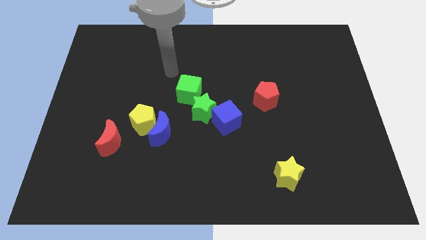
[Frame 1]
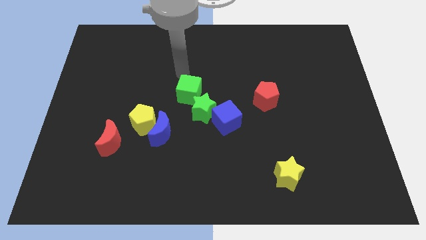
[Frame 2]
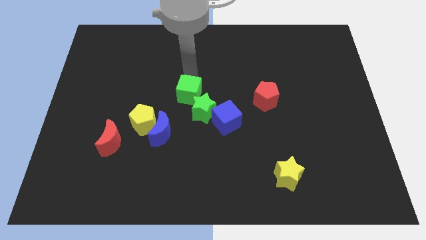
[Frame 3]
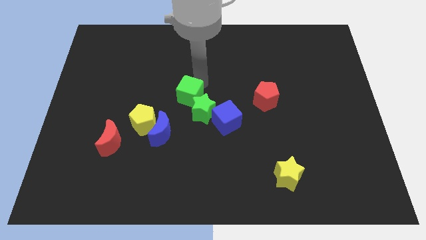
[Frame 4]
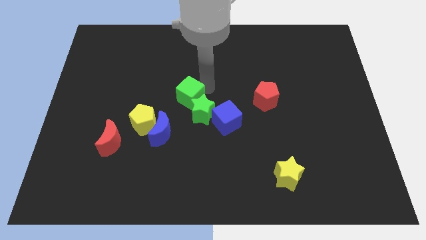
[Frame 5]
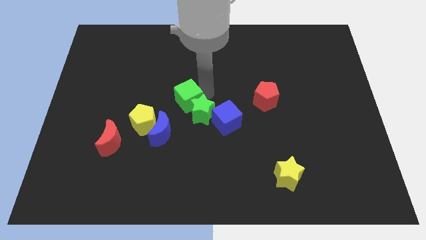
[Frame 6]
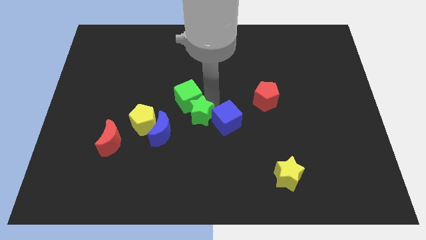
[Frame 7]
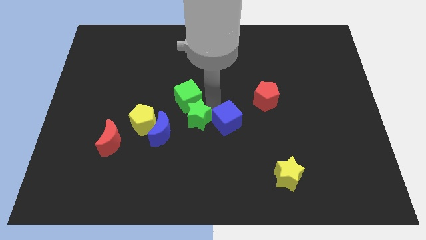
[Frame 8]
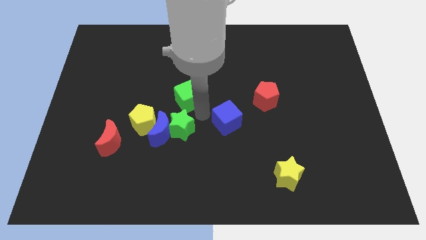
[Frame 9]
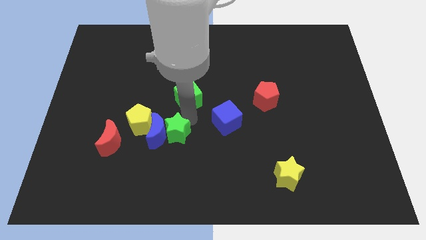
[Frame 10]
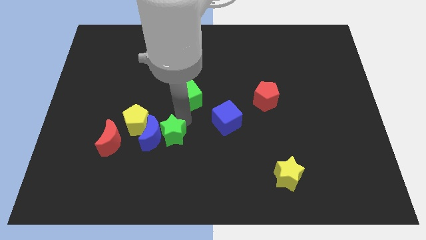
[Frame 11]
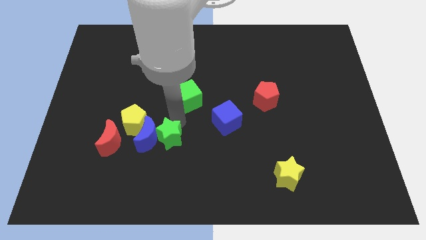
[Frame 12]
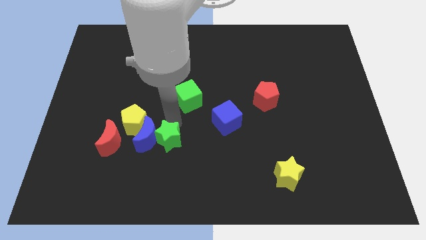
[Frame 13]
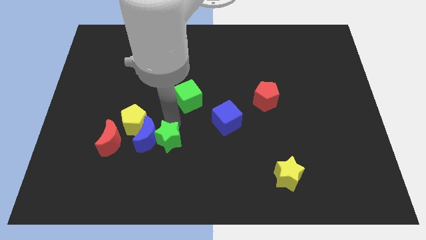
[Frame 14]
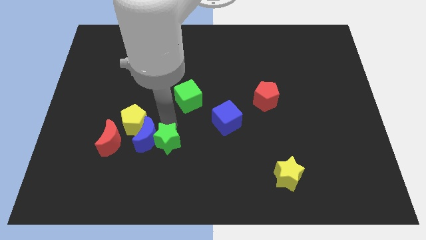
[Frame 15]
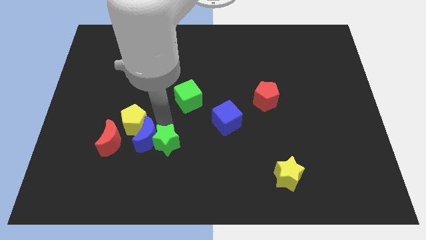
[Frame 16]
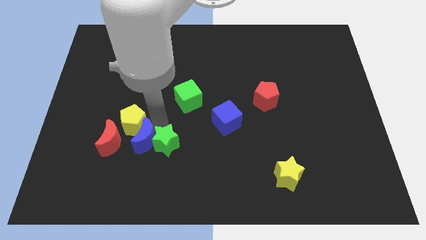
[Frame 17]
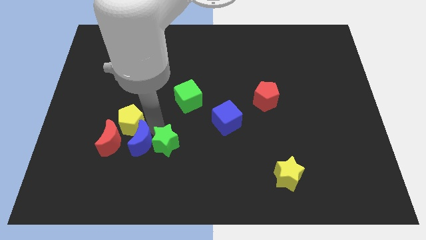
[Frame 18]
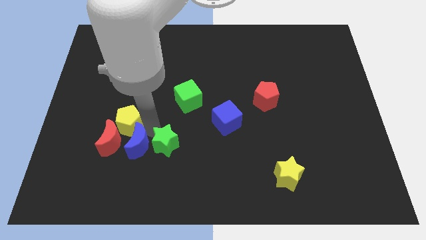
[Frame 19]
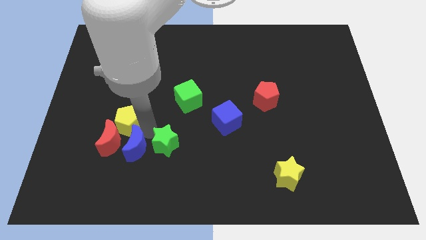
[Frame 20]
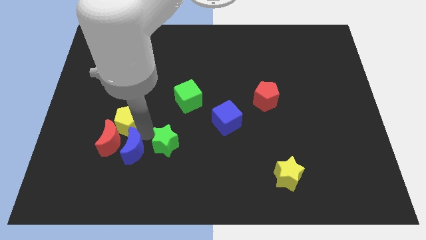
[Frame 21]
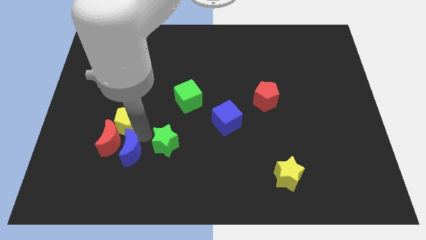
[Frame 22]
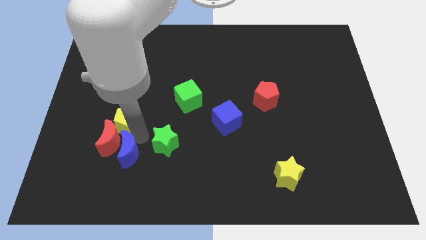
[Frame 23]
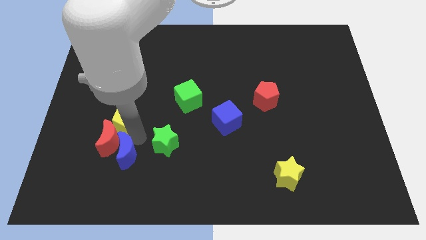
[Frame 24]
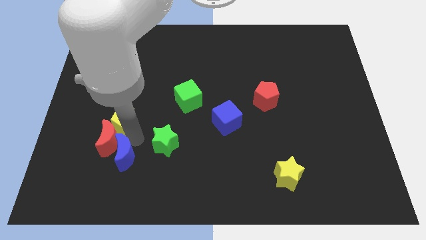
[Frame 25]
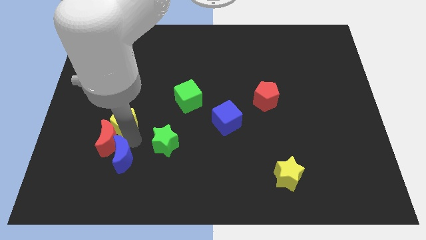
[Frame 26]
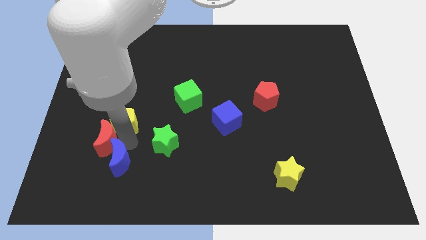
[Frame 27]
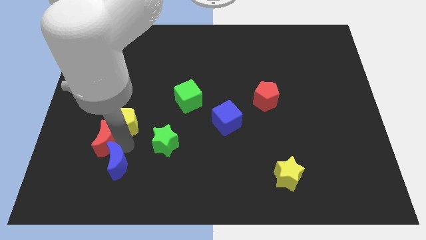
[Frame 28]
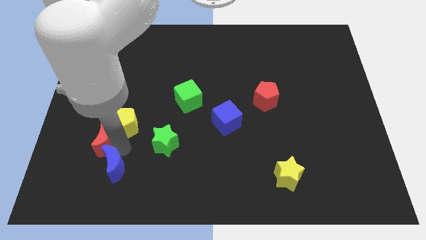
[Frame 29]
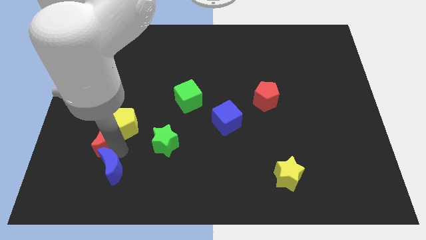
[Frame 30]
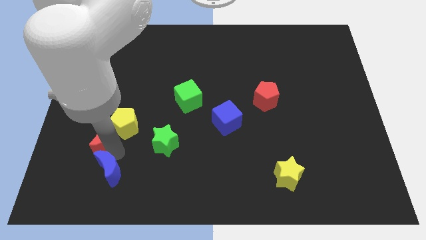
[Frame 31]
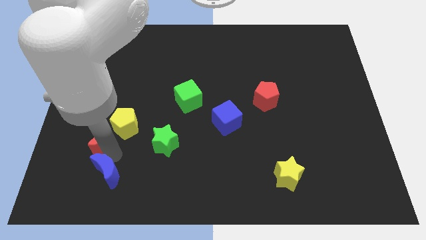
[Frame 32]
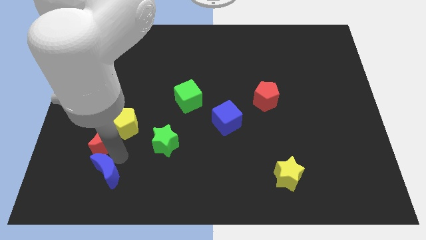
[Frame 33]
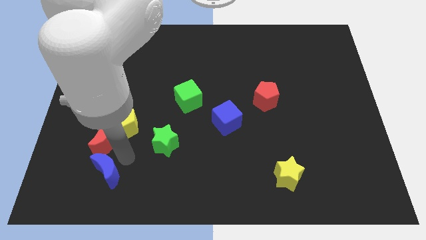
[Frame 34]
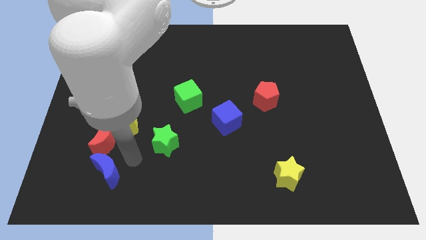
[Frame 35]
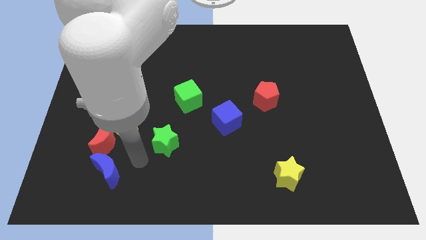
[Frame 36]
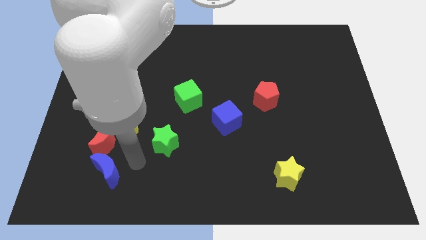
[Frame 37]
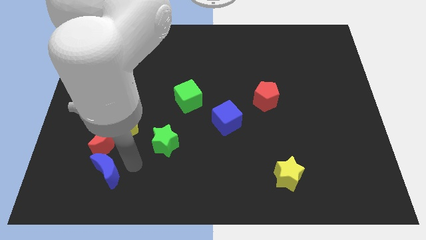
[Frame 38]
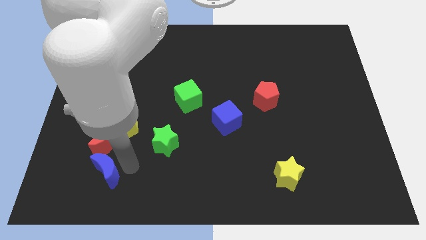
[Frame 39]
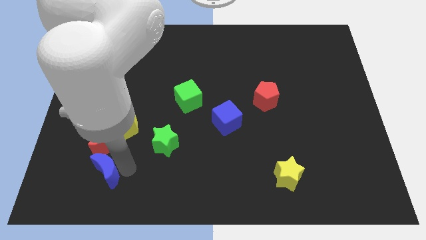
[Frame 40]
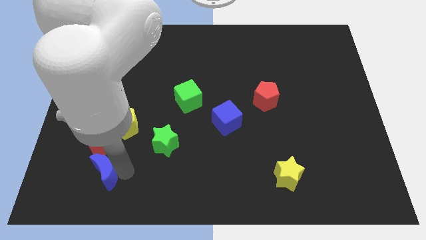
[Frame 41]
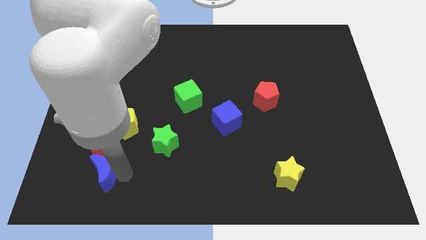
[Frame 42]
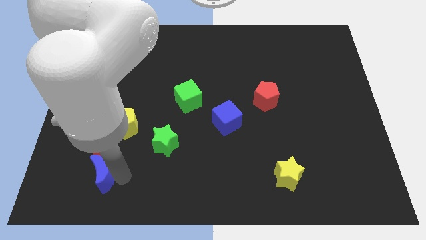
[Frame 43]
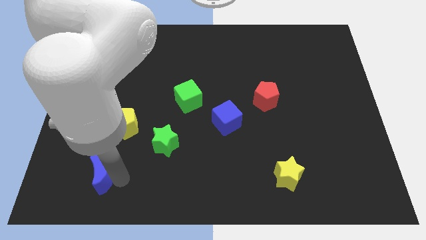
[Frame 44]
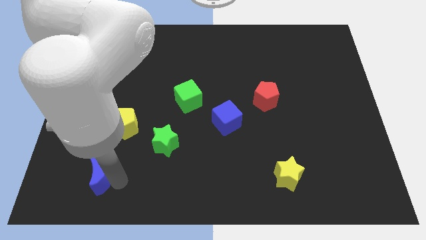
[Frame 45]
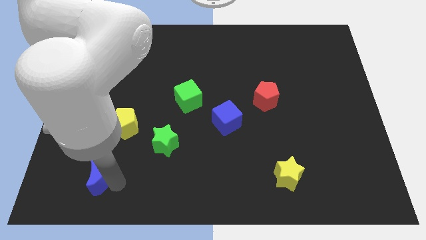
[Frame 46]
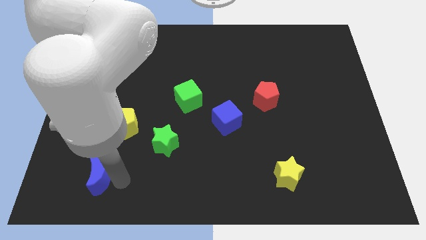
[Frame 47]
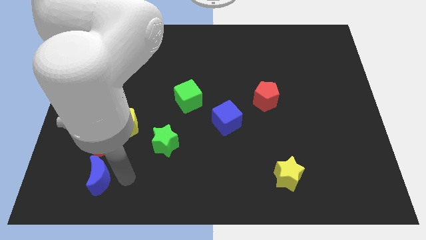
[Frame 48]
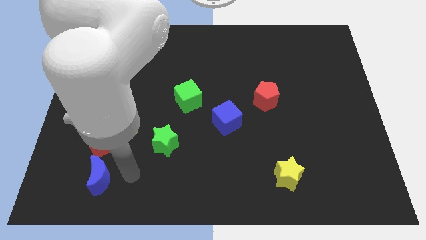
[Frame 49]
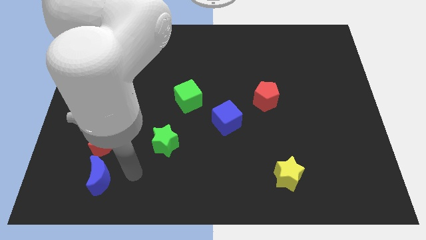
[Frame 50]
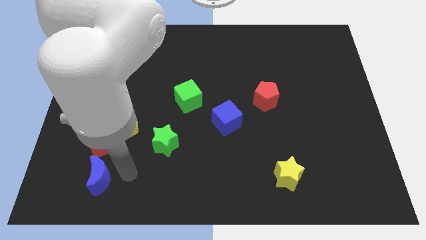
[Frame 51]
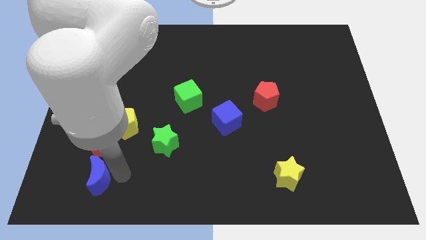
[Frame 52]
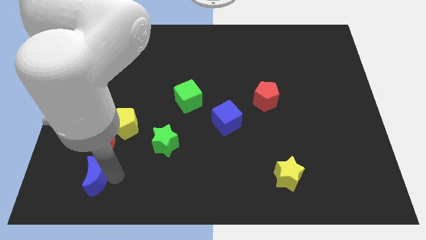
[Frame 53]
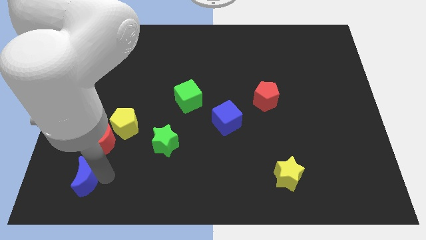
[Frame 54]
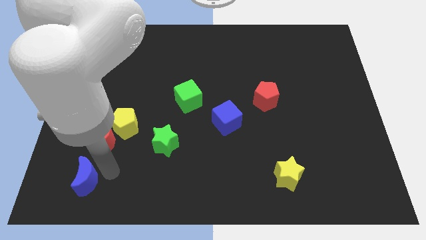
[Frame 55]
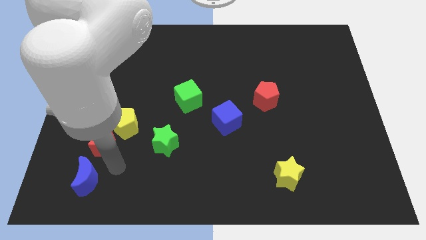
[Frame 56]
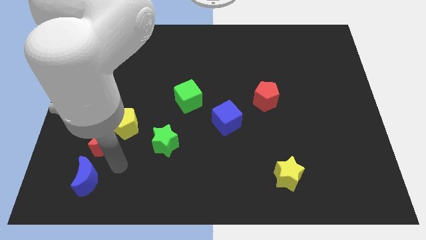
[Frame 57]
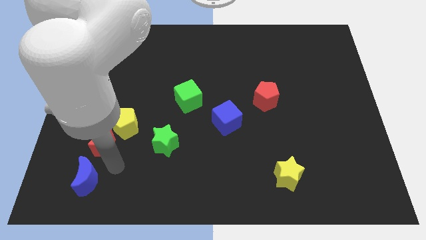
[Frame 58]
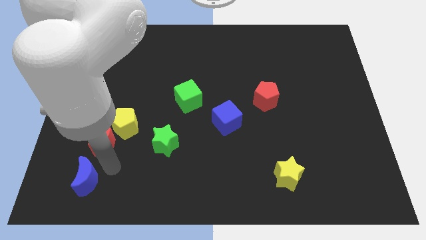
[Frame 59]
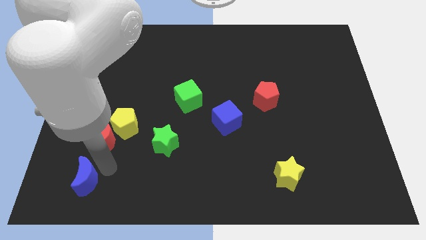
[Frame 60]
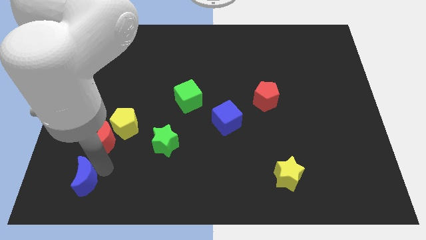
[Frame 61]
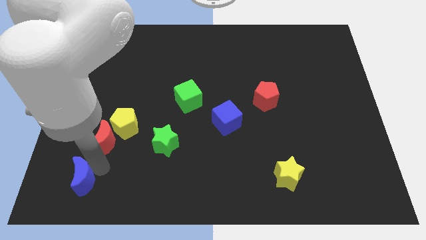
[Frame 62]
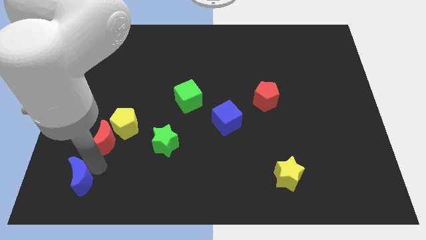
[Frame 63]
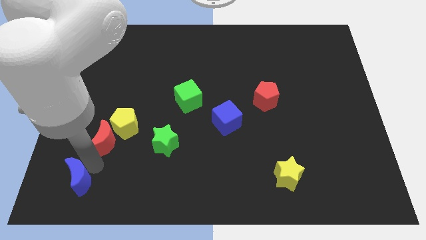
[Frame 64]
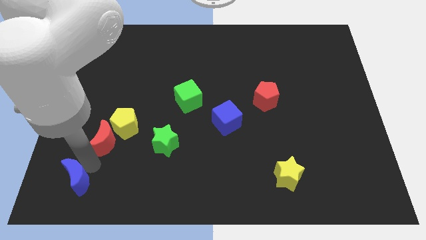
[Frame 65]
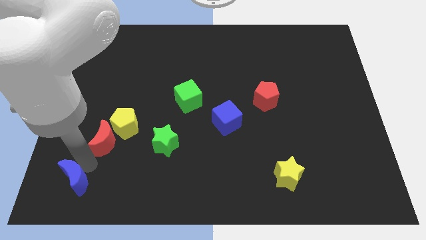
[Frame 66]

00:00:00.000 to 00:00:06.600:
put the blue moon to the lower left corner
